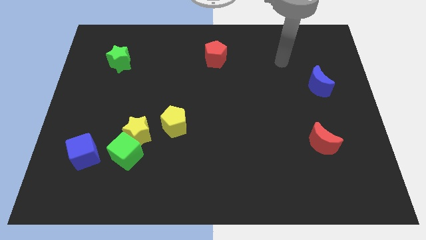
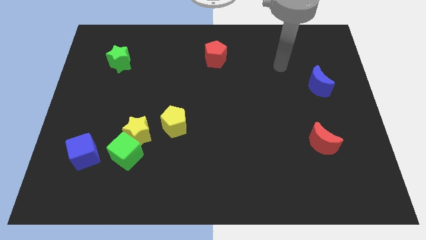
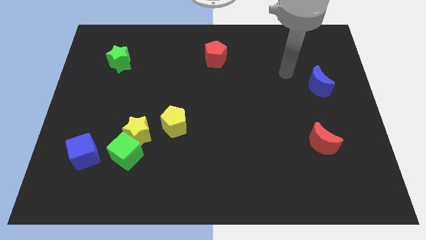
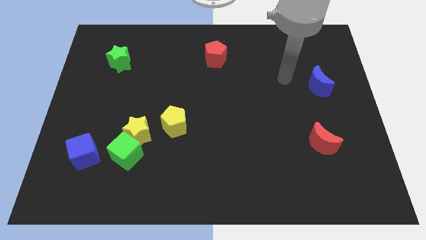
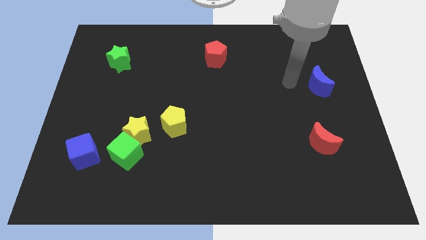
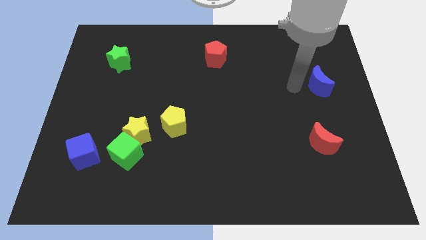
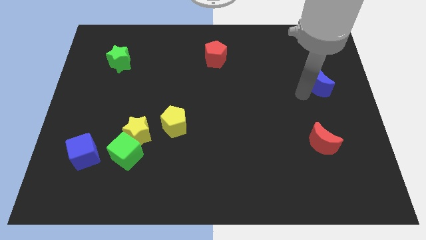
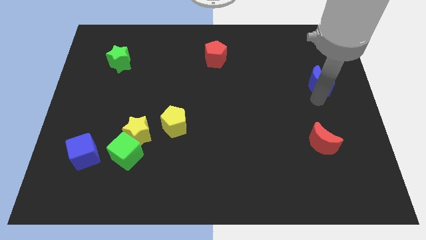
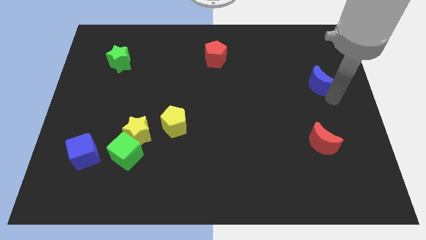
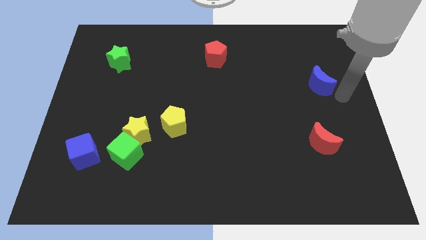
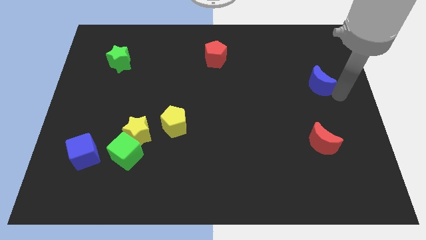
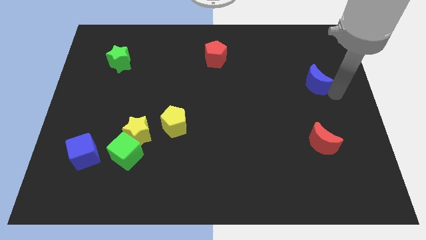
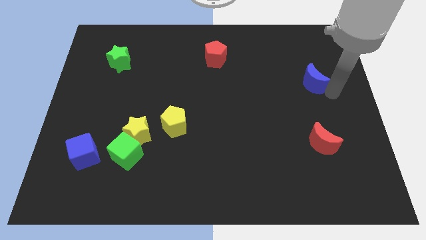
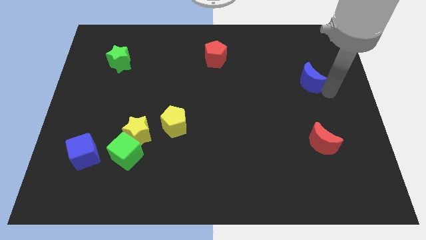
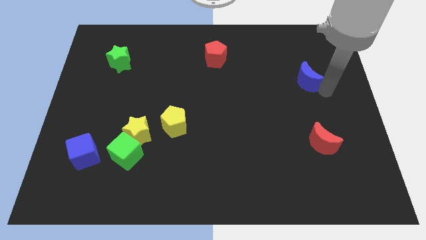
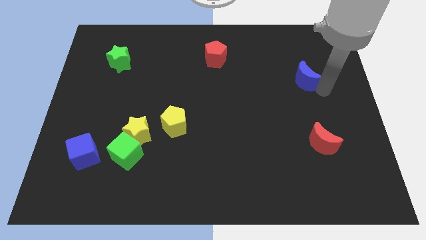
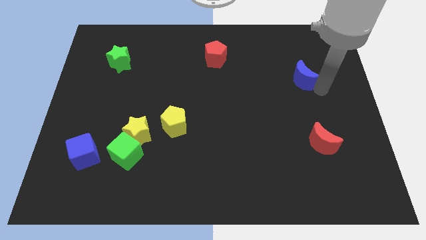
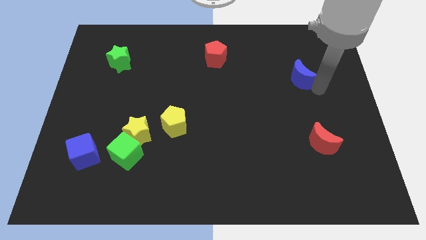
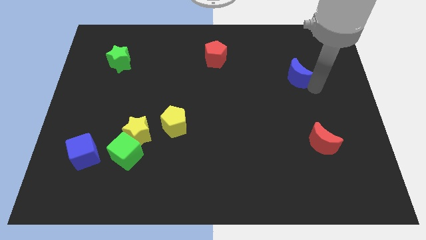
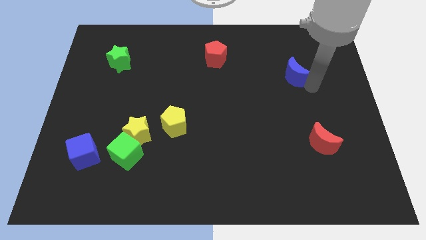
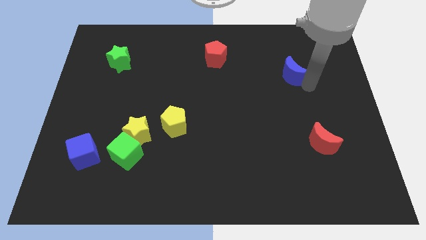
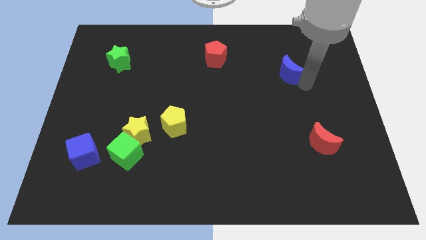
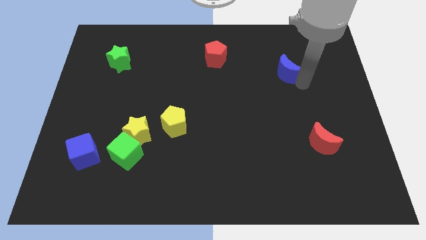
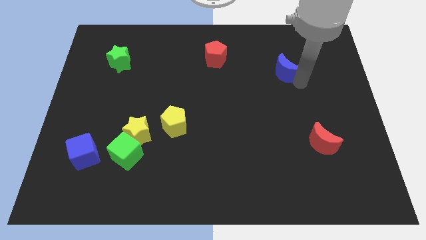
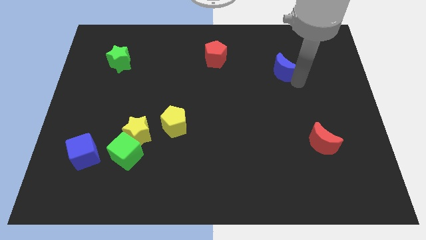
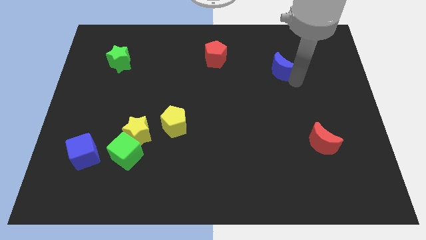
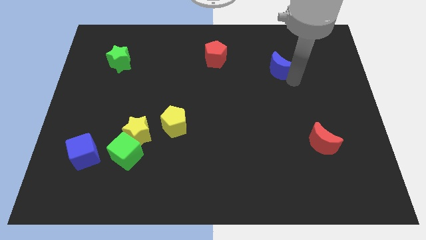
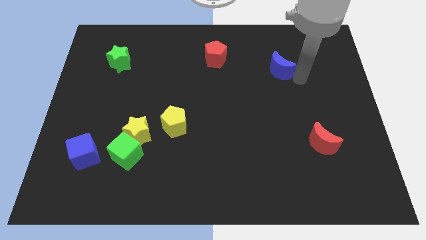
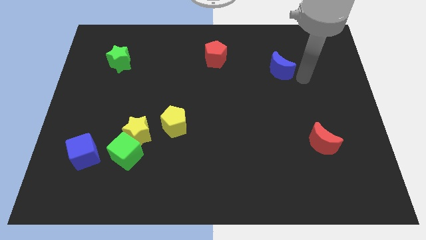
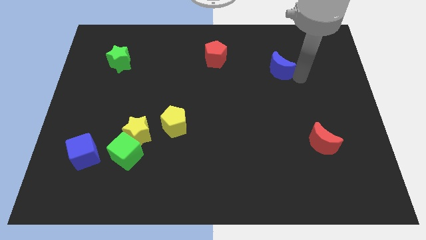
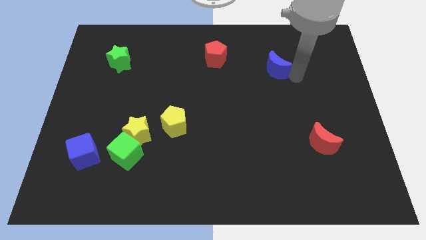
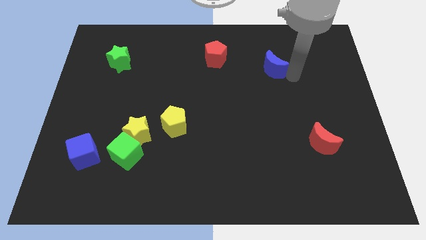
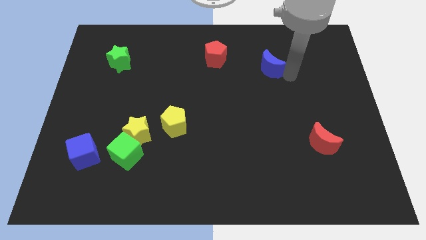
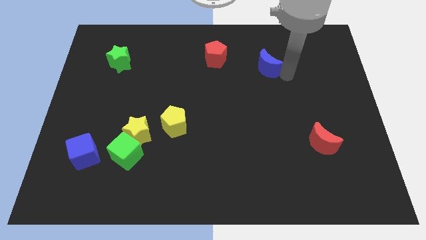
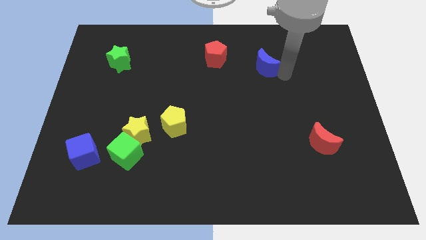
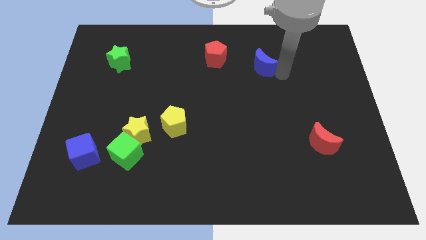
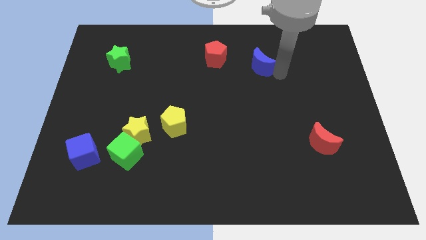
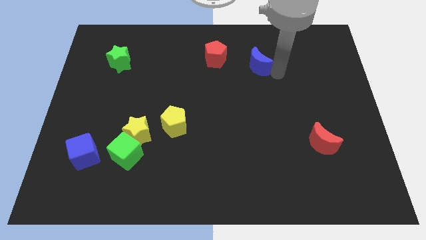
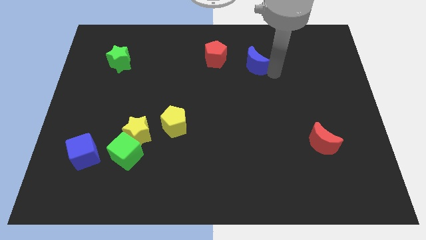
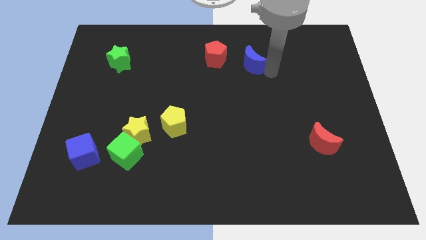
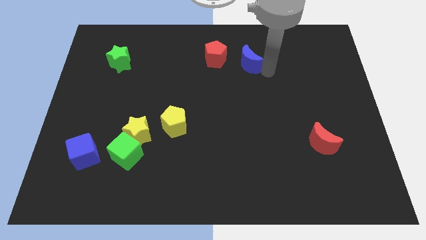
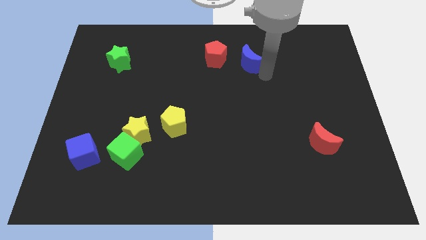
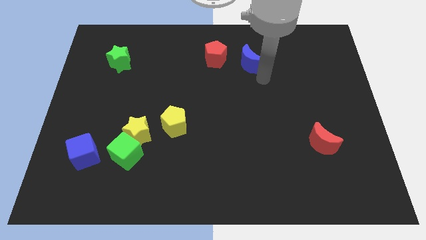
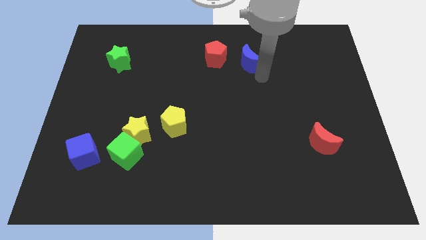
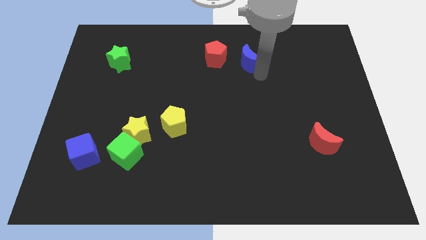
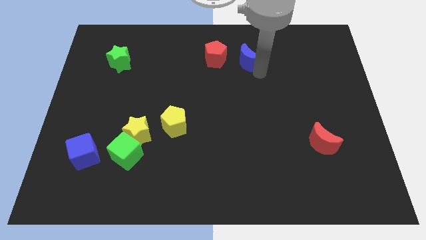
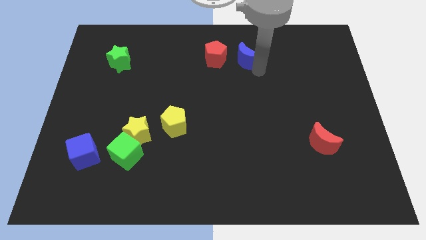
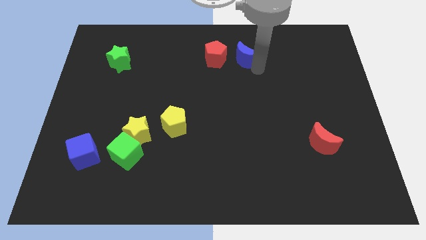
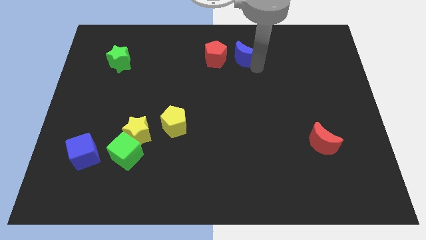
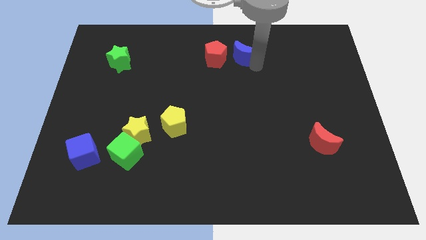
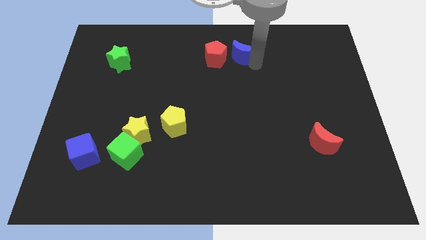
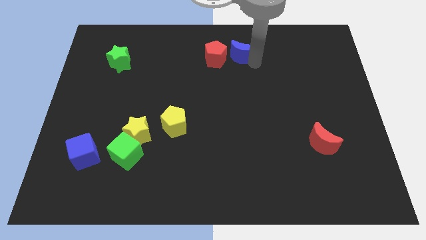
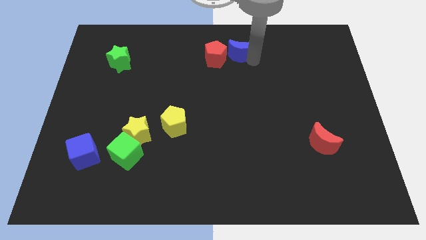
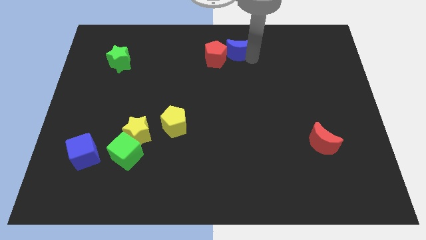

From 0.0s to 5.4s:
move the blue moon to the top

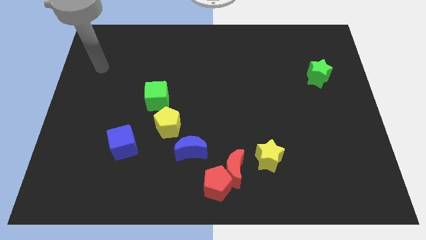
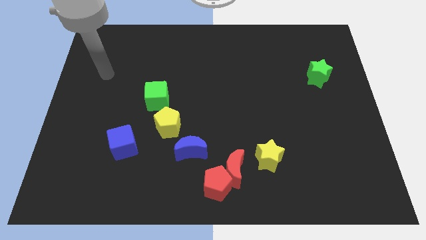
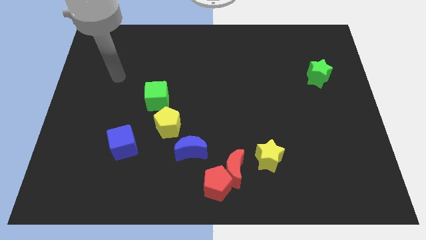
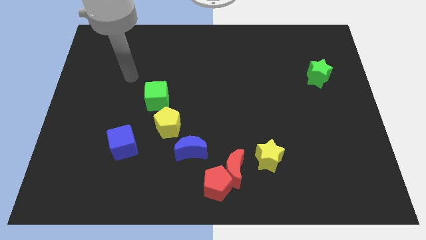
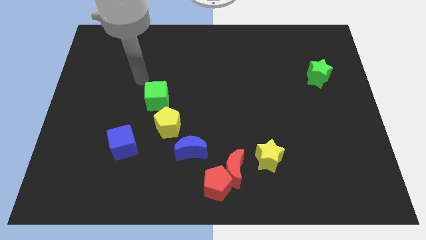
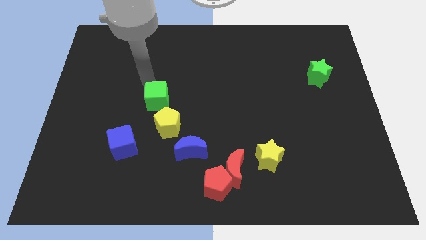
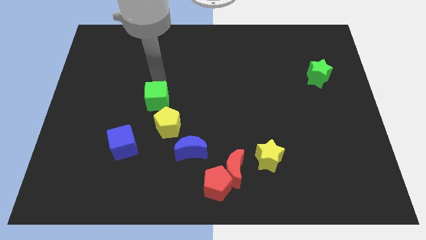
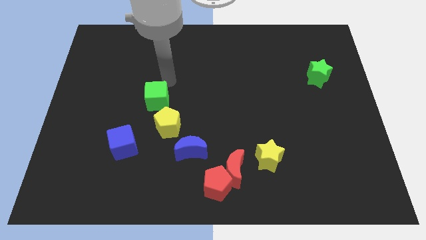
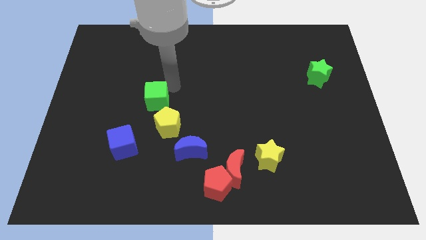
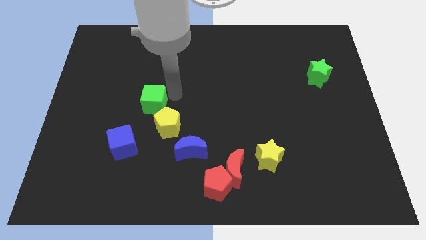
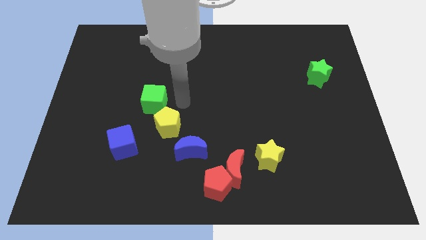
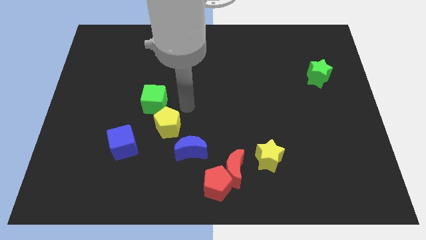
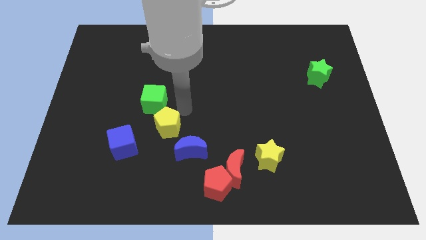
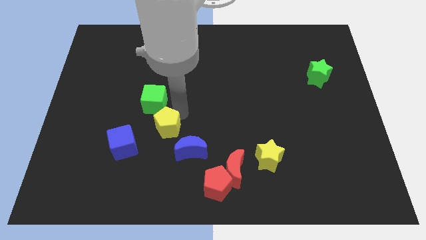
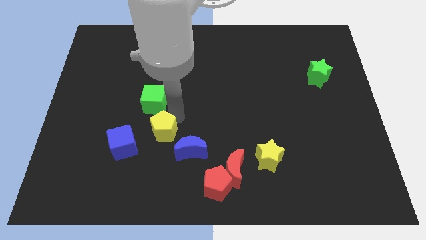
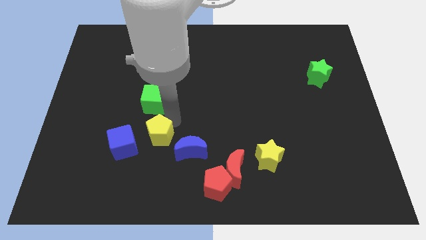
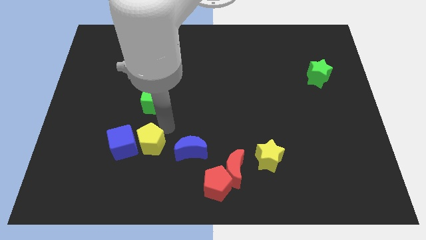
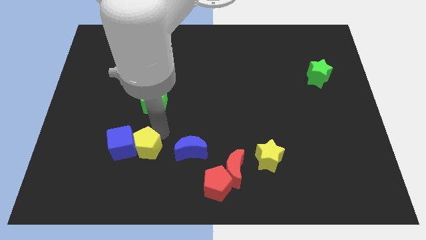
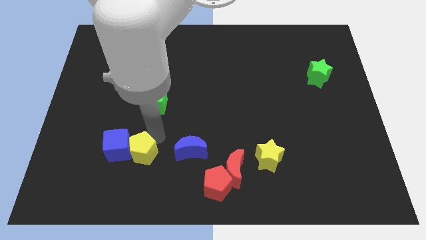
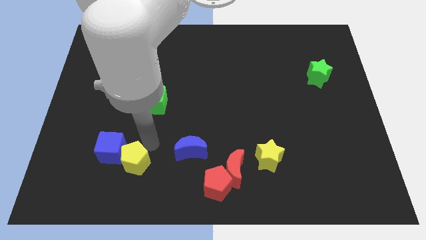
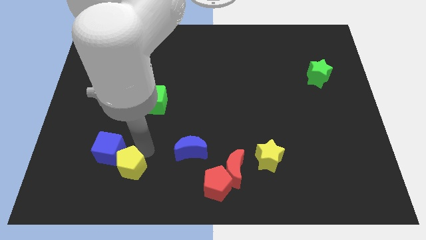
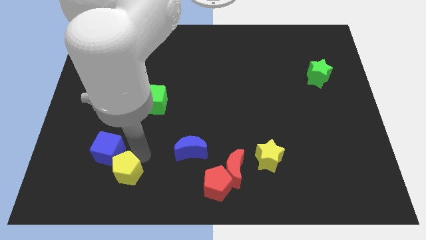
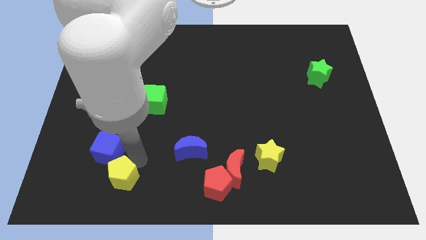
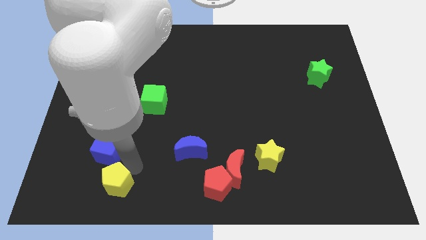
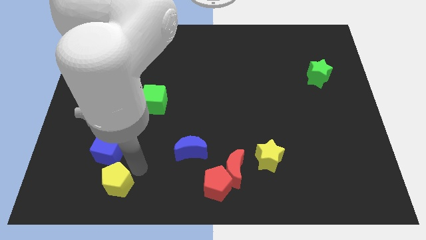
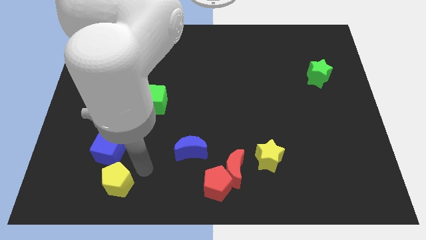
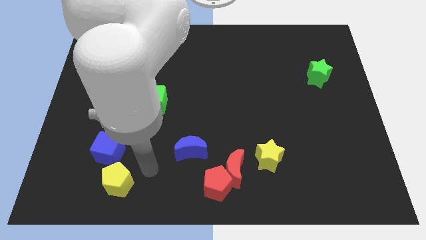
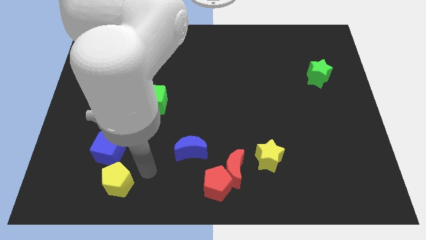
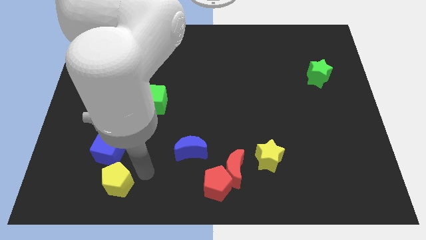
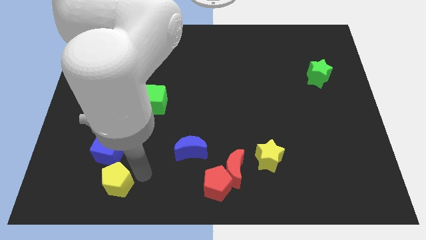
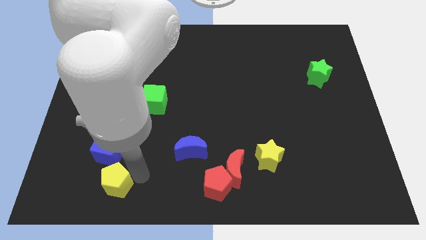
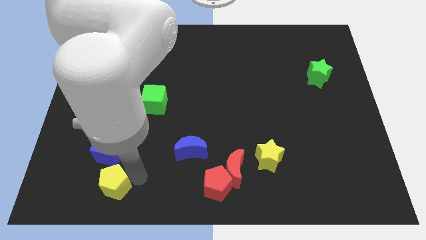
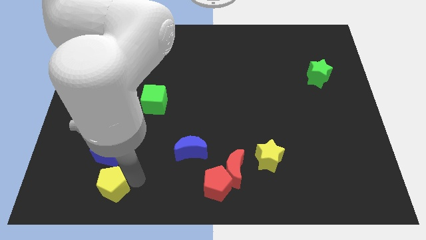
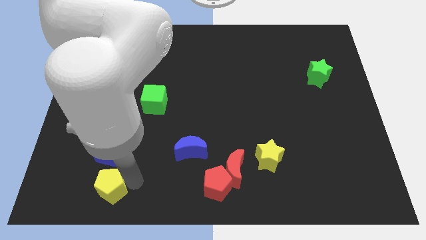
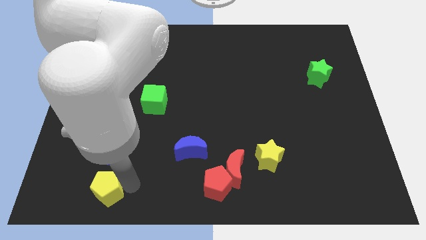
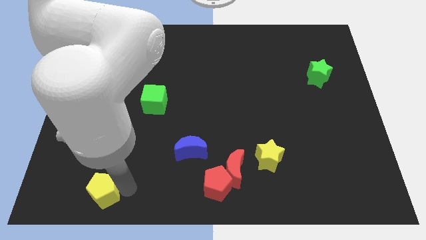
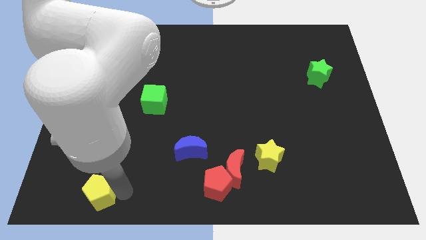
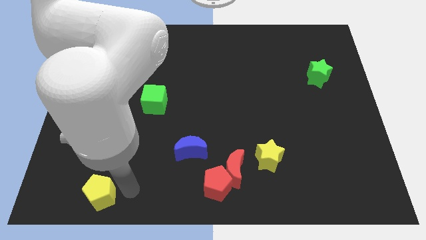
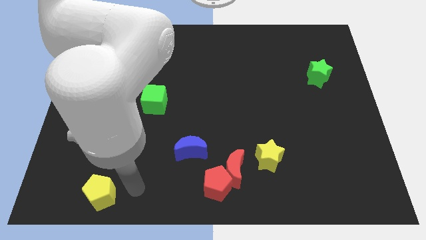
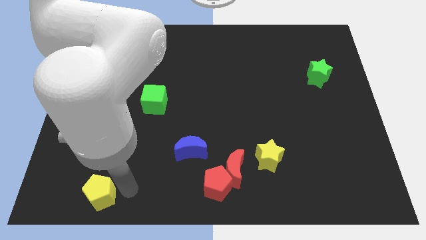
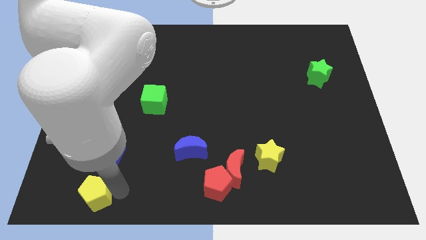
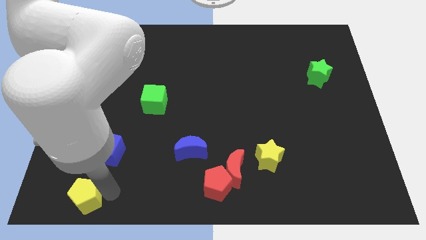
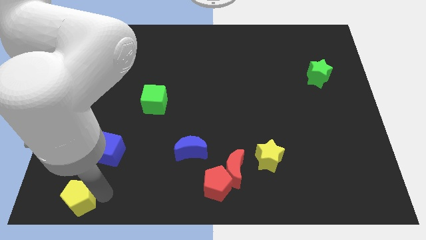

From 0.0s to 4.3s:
slide the yellow pentagon to the bottom left
